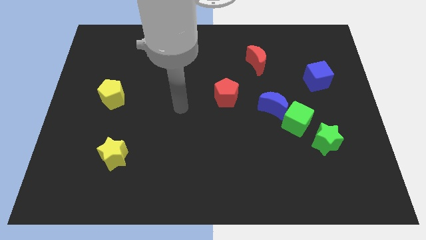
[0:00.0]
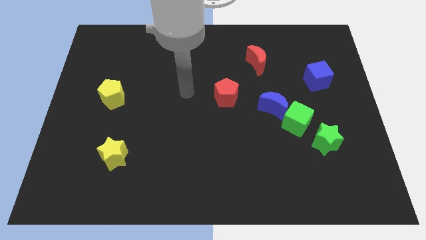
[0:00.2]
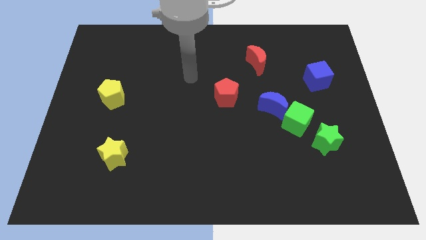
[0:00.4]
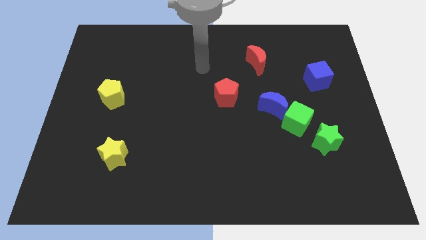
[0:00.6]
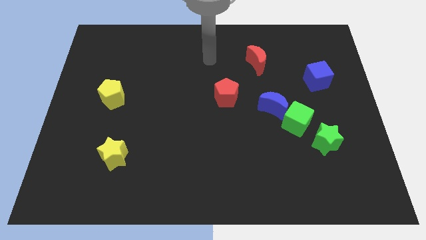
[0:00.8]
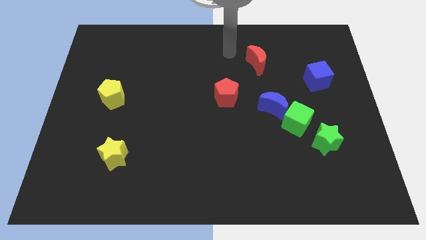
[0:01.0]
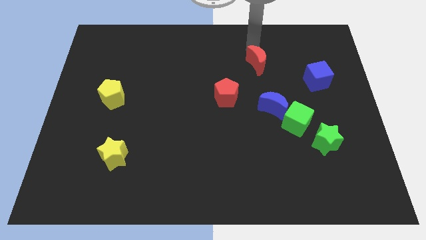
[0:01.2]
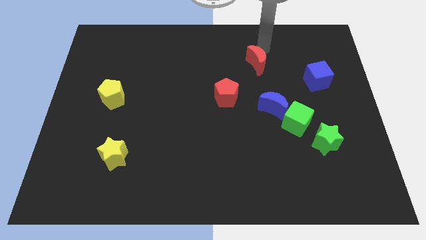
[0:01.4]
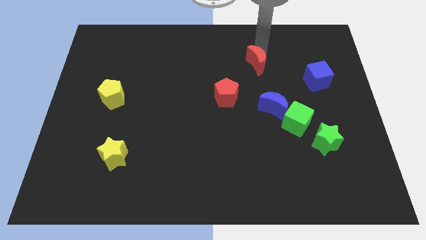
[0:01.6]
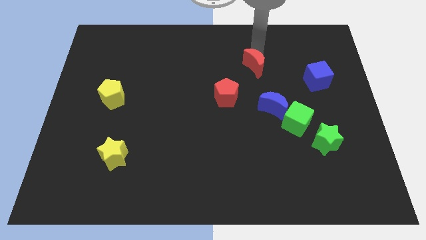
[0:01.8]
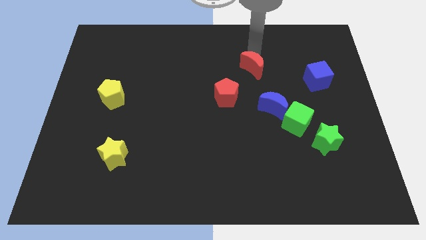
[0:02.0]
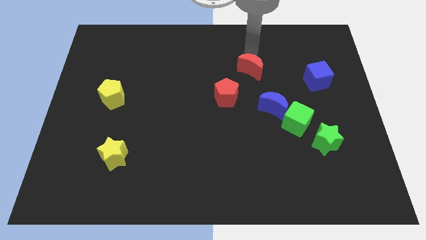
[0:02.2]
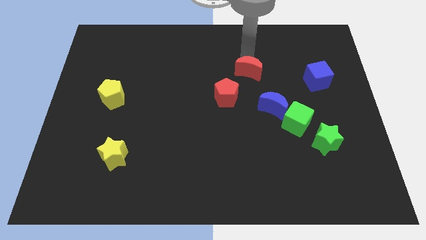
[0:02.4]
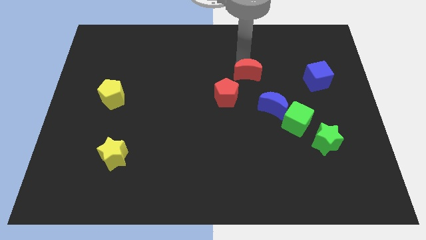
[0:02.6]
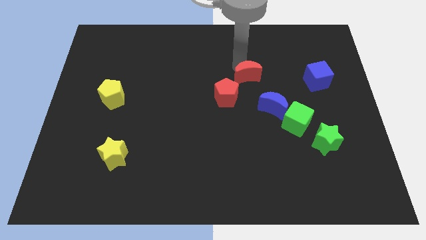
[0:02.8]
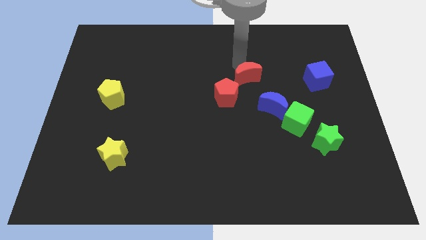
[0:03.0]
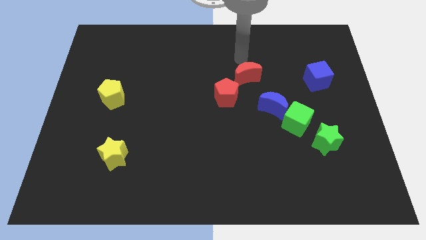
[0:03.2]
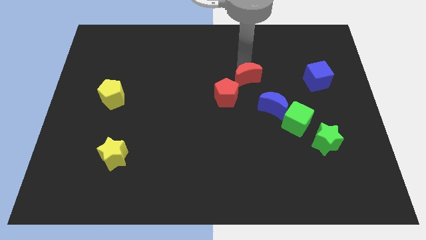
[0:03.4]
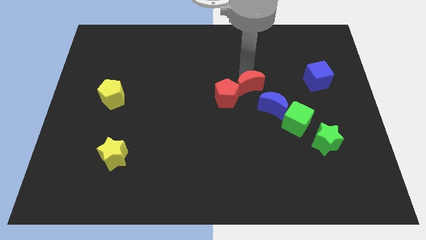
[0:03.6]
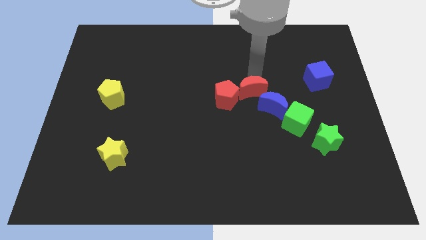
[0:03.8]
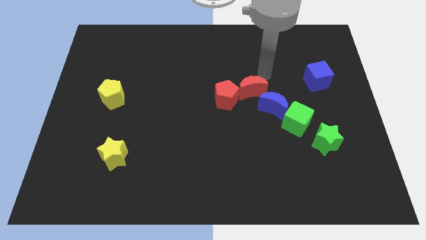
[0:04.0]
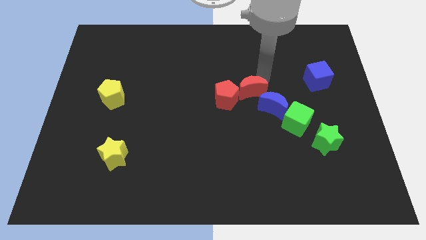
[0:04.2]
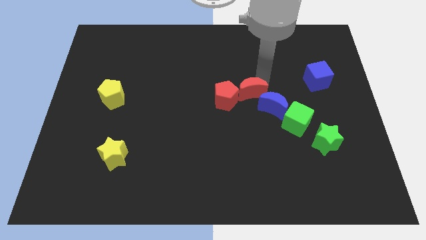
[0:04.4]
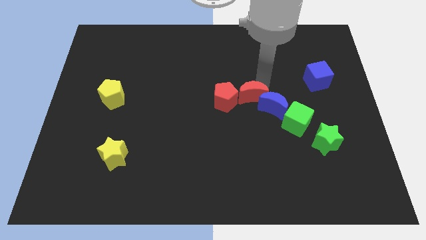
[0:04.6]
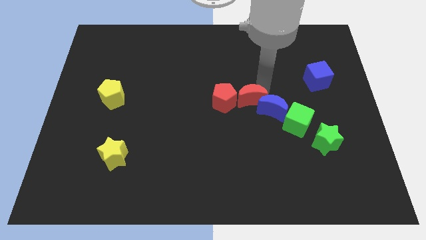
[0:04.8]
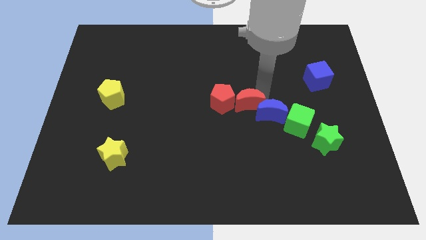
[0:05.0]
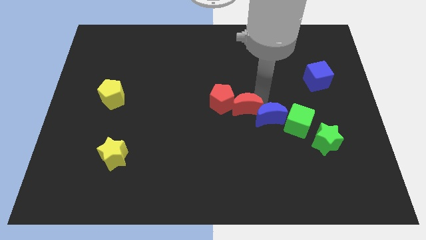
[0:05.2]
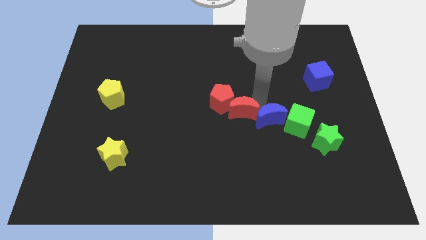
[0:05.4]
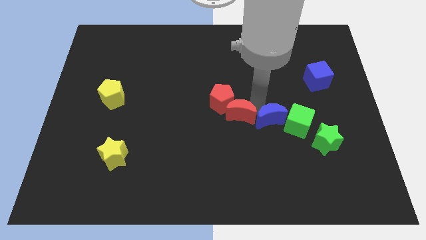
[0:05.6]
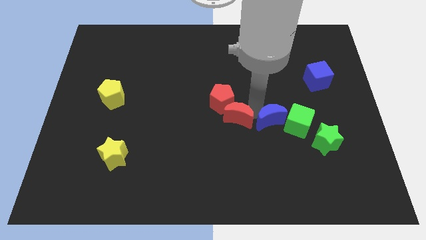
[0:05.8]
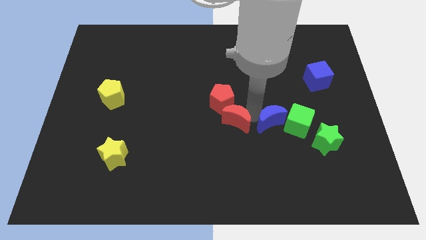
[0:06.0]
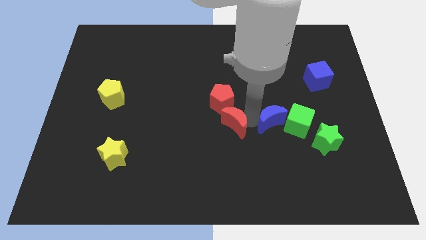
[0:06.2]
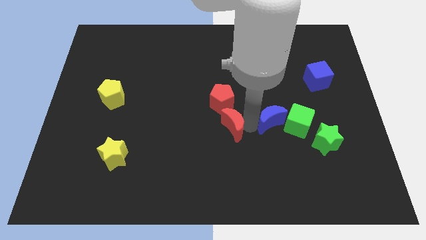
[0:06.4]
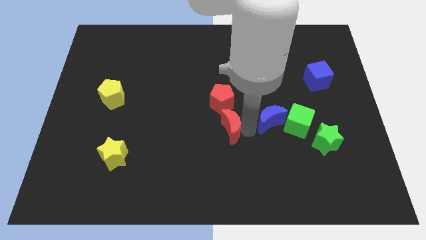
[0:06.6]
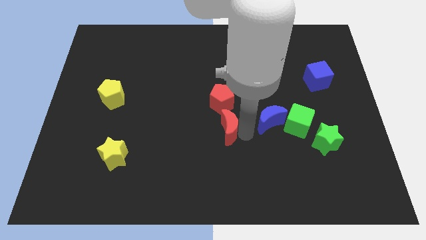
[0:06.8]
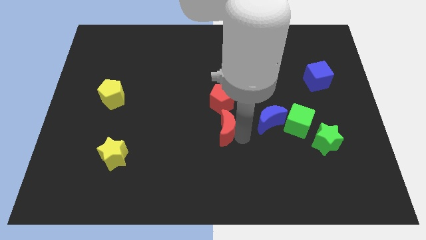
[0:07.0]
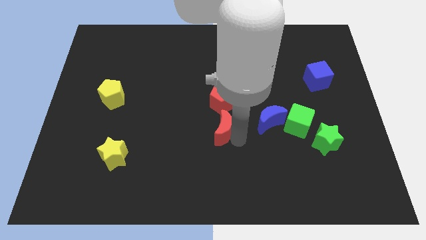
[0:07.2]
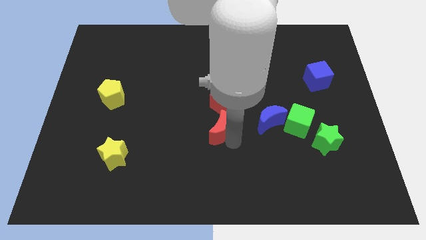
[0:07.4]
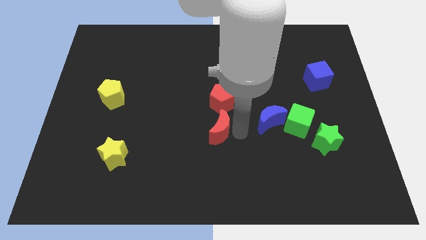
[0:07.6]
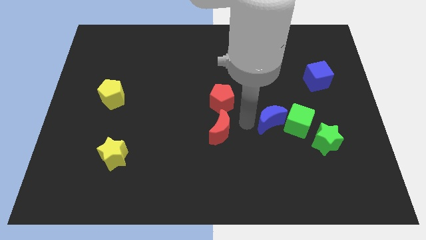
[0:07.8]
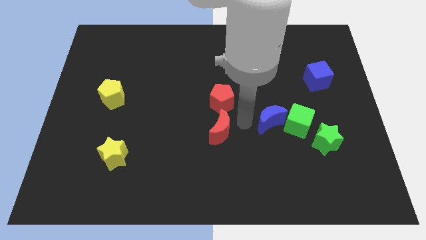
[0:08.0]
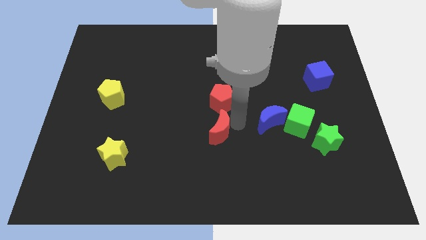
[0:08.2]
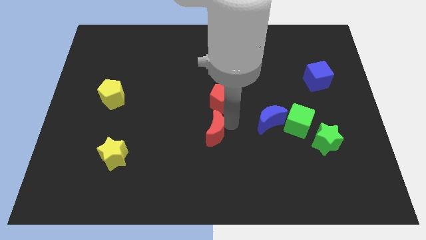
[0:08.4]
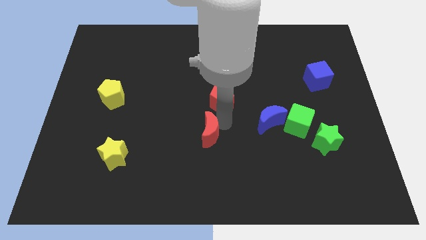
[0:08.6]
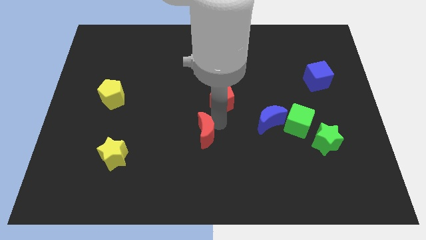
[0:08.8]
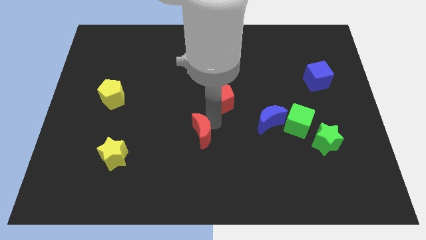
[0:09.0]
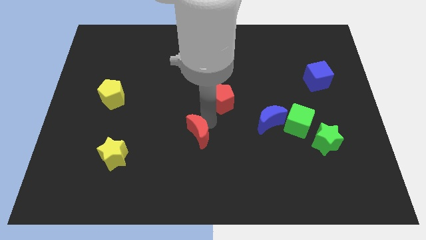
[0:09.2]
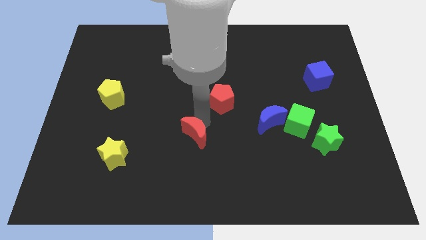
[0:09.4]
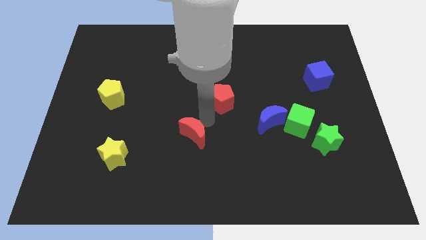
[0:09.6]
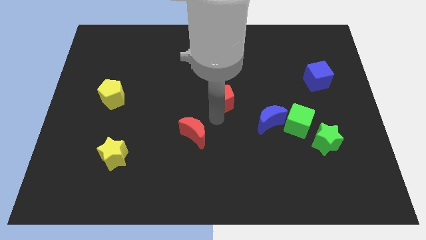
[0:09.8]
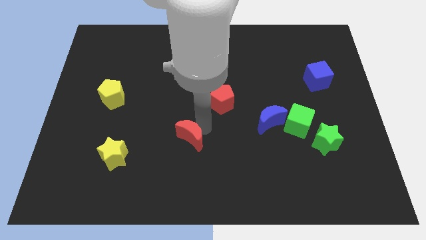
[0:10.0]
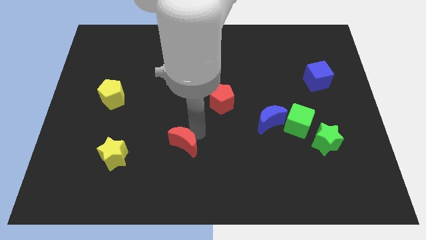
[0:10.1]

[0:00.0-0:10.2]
slide the red moon just right of the yellow star

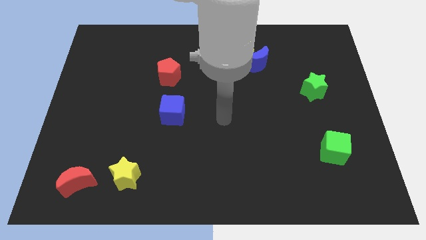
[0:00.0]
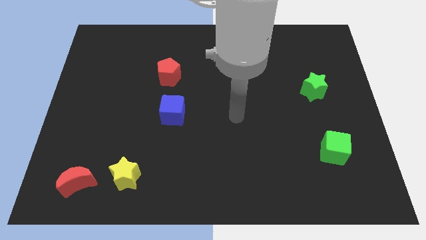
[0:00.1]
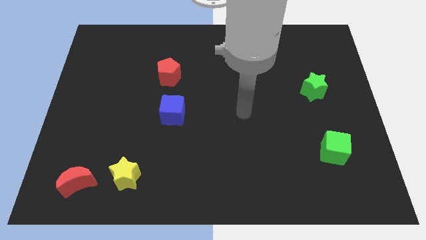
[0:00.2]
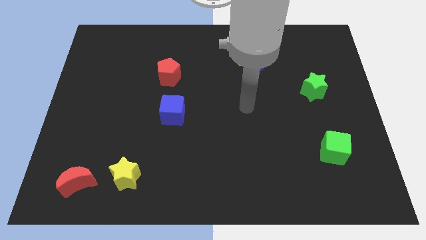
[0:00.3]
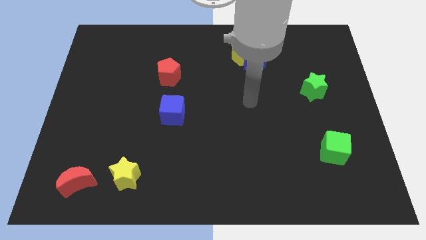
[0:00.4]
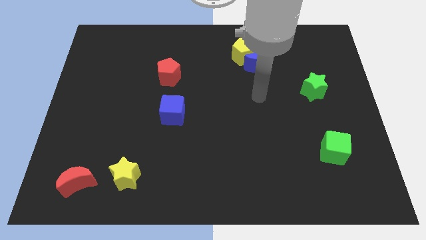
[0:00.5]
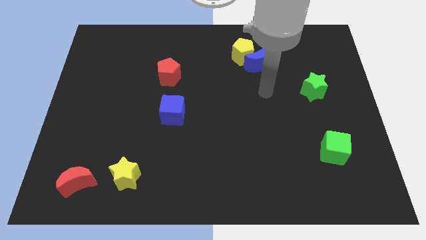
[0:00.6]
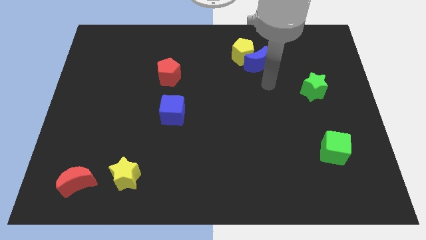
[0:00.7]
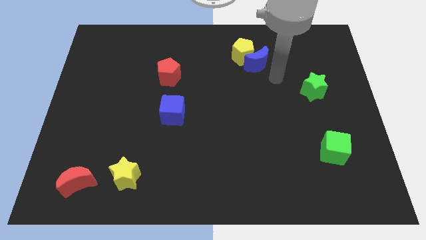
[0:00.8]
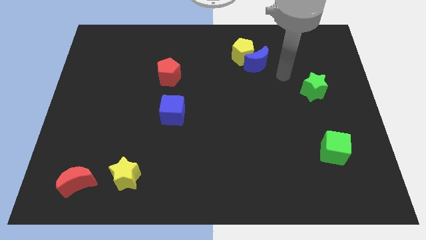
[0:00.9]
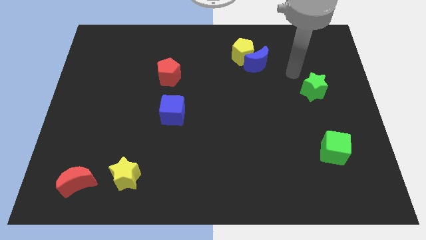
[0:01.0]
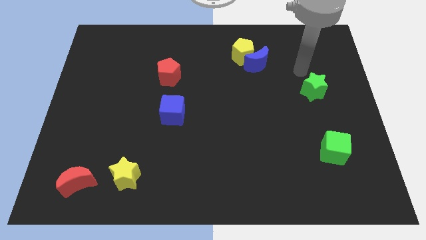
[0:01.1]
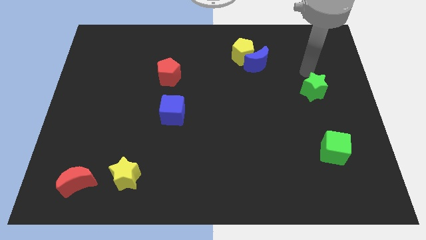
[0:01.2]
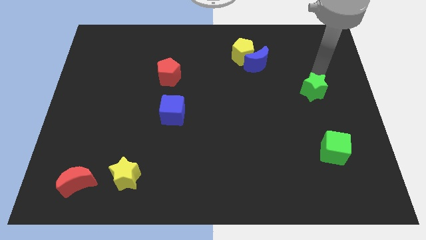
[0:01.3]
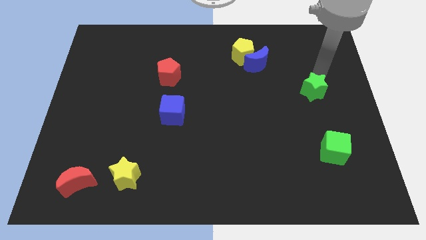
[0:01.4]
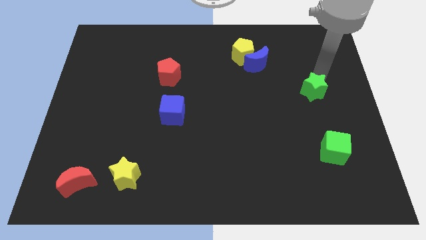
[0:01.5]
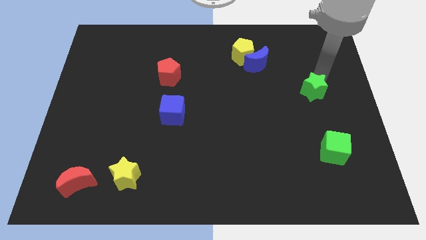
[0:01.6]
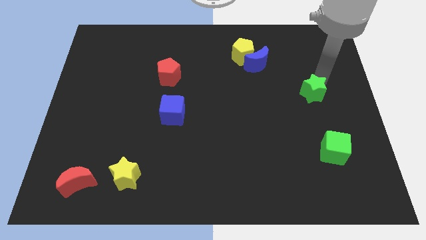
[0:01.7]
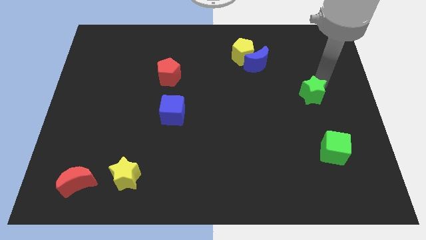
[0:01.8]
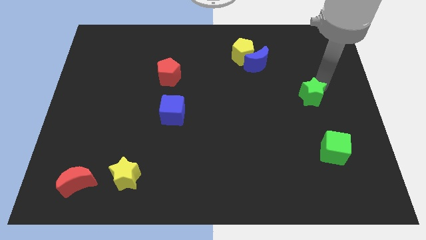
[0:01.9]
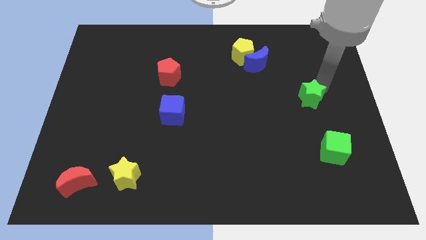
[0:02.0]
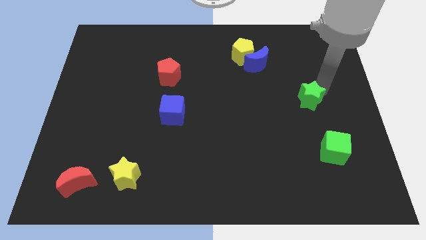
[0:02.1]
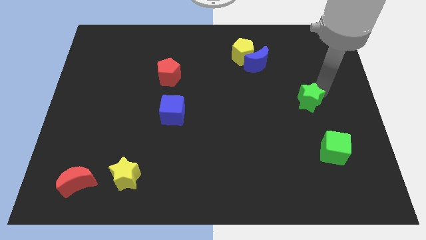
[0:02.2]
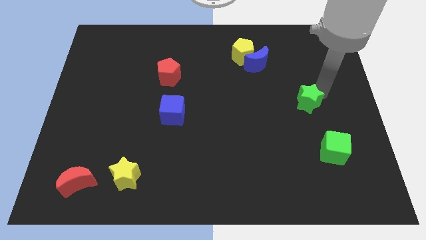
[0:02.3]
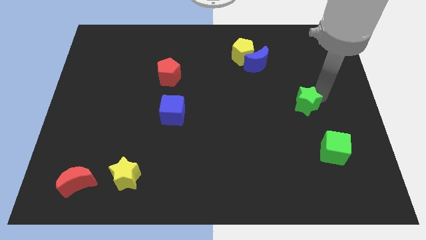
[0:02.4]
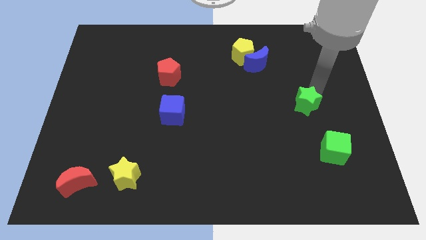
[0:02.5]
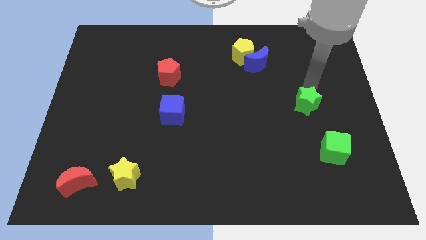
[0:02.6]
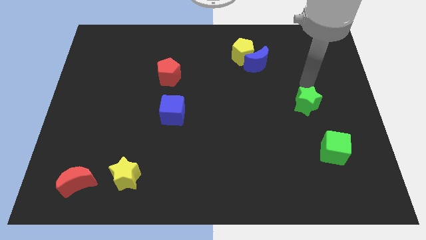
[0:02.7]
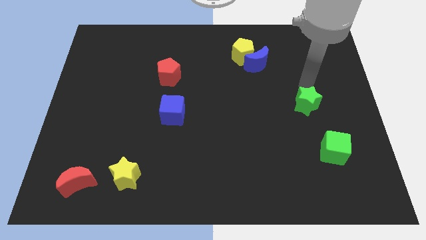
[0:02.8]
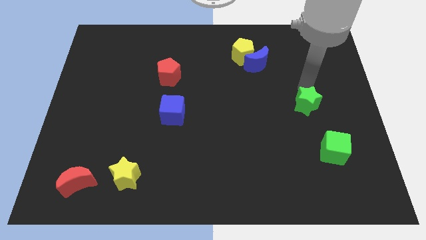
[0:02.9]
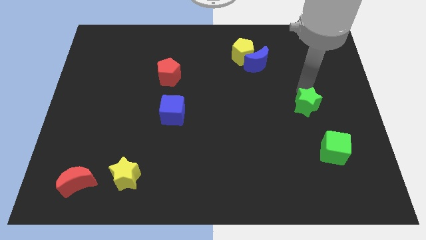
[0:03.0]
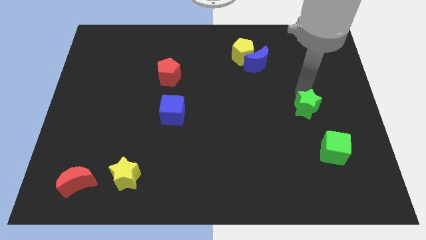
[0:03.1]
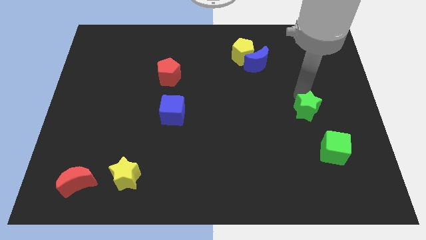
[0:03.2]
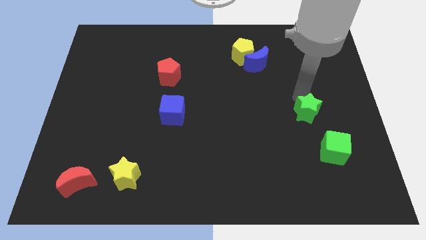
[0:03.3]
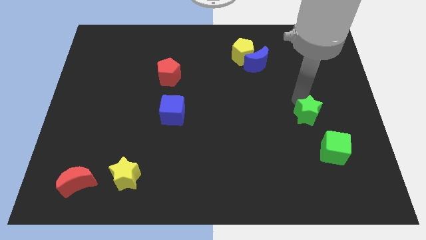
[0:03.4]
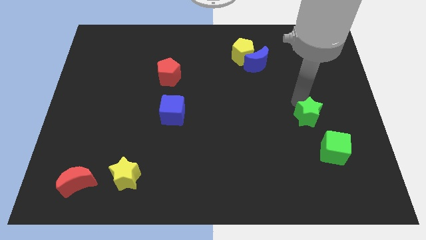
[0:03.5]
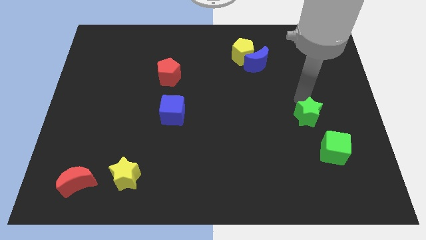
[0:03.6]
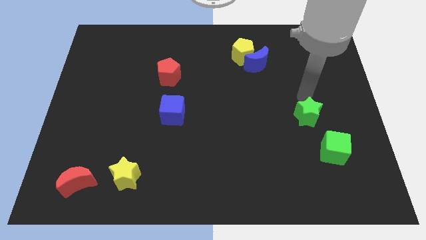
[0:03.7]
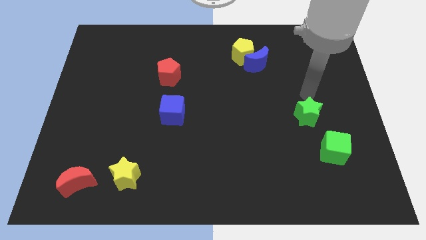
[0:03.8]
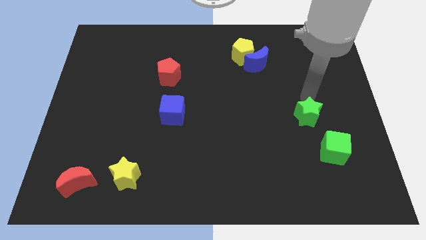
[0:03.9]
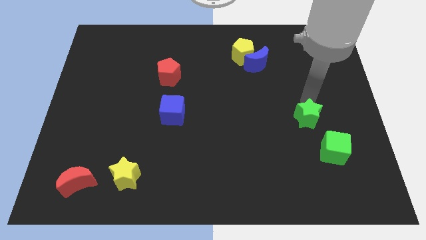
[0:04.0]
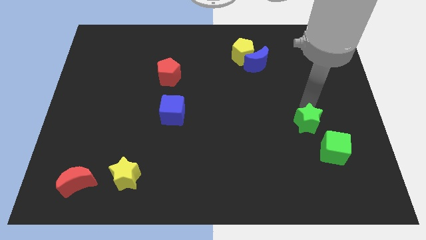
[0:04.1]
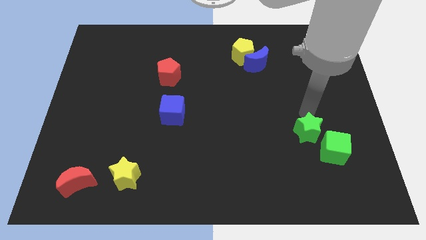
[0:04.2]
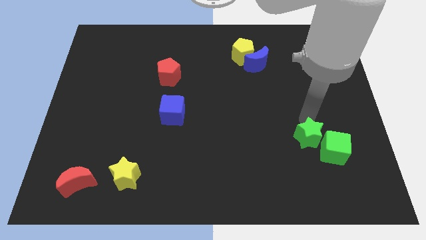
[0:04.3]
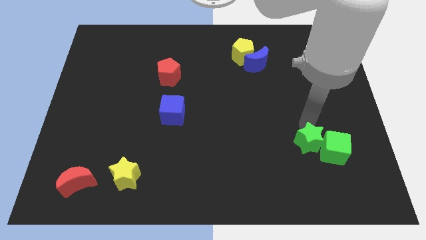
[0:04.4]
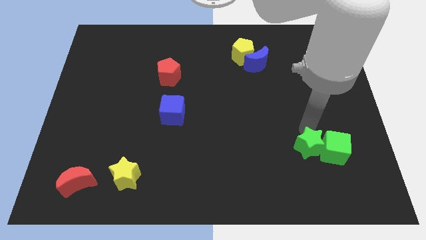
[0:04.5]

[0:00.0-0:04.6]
slide the green star to the bottom left of the green cube
